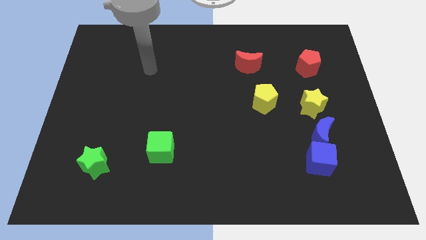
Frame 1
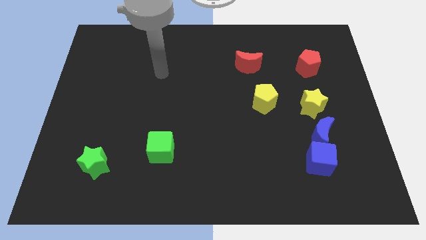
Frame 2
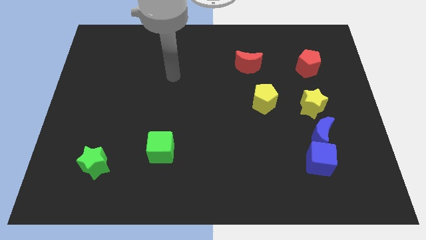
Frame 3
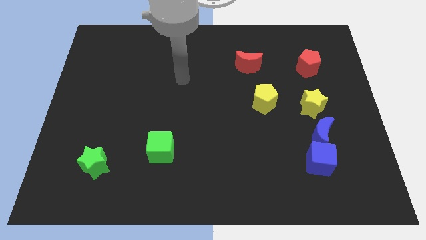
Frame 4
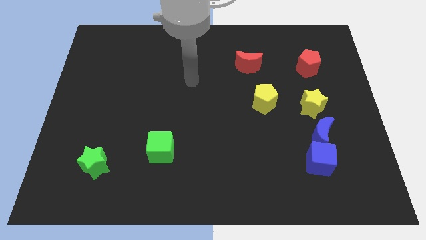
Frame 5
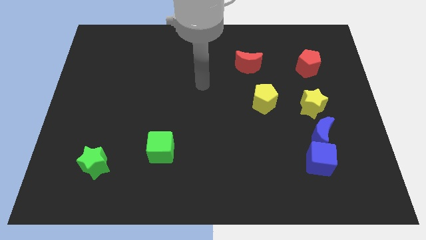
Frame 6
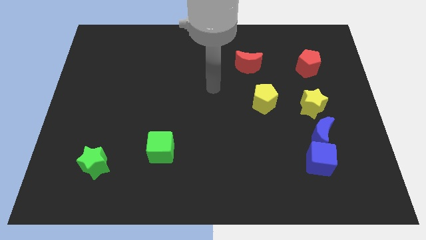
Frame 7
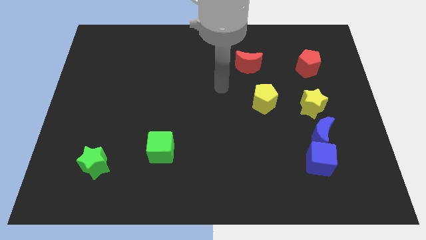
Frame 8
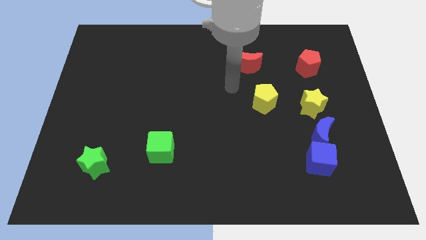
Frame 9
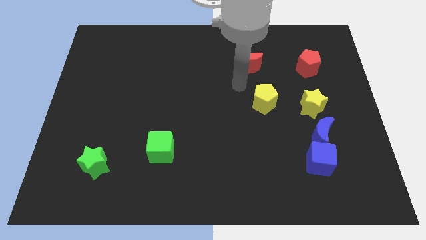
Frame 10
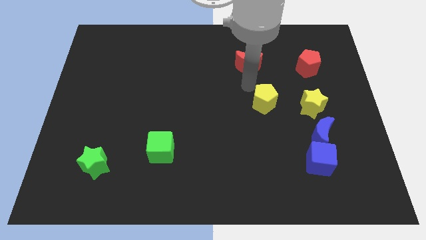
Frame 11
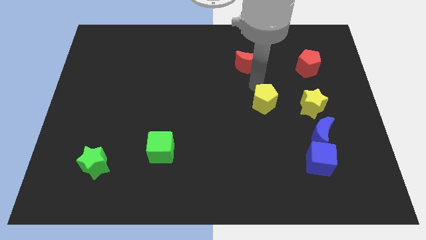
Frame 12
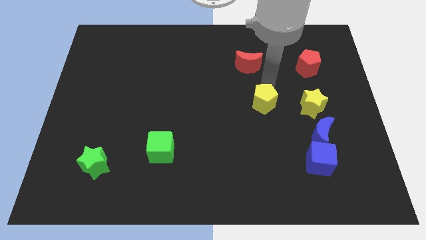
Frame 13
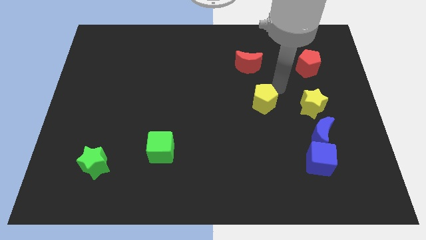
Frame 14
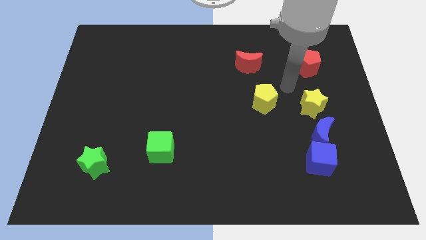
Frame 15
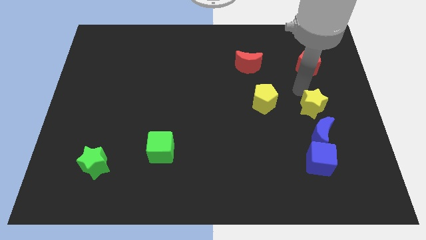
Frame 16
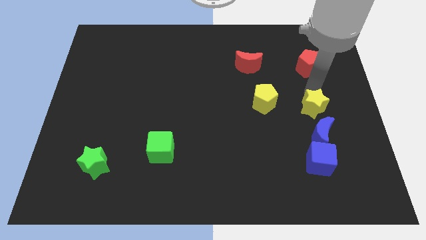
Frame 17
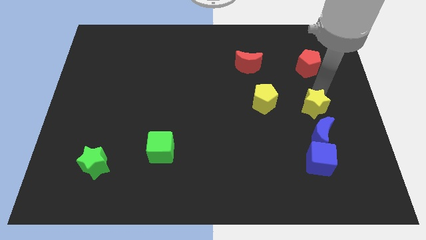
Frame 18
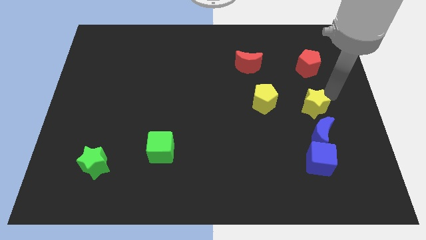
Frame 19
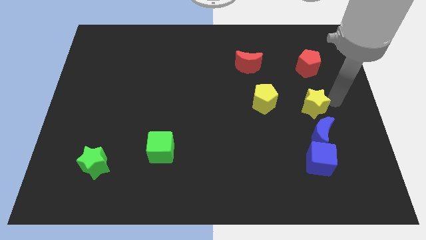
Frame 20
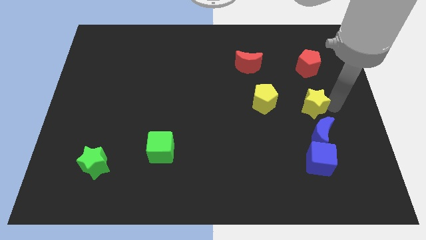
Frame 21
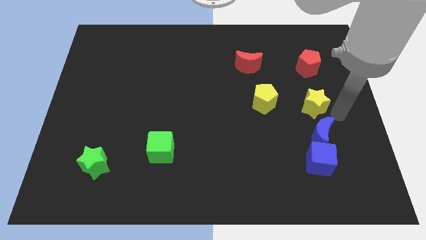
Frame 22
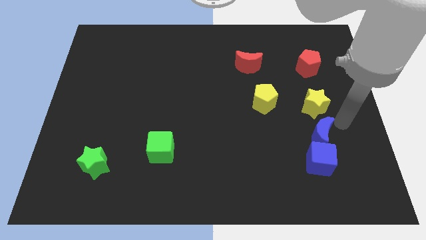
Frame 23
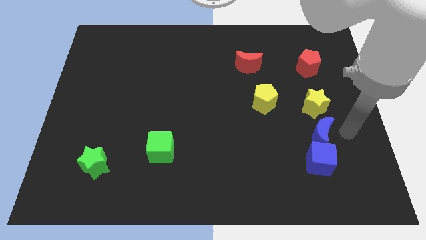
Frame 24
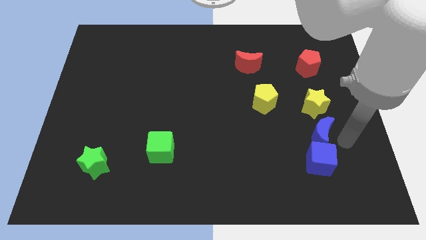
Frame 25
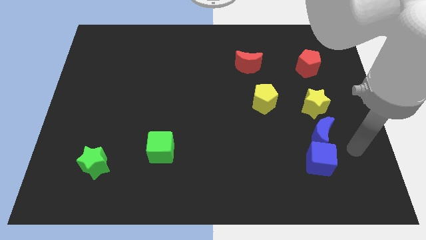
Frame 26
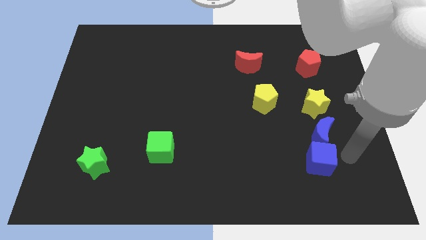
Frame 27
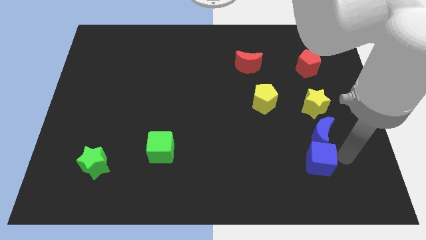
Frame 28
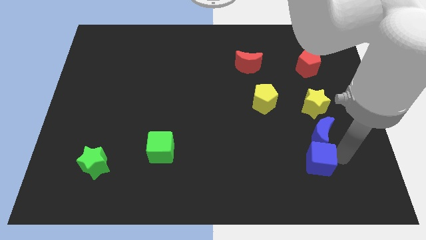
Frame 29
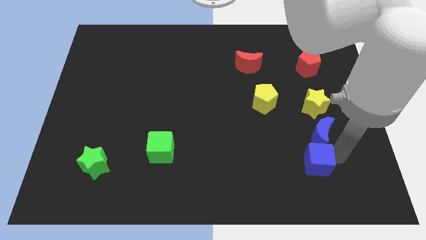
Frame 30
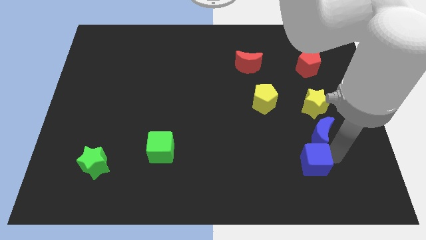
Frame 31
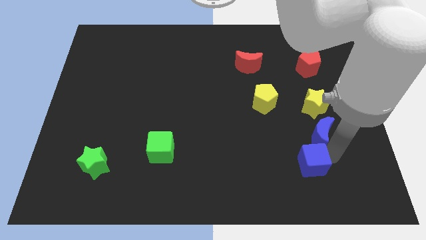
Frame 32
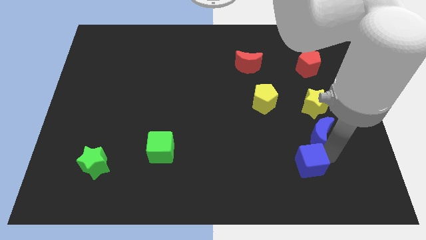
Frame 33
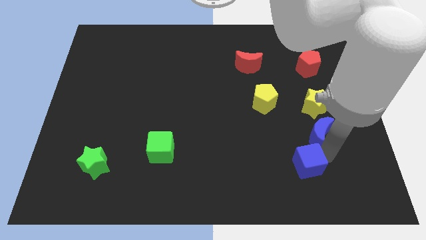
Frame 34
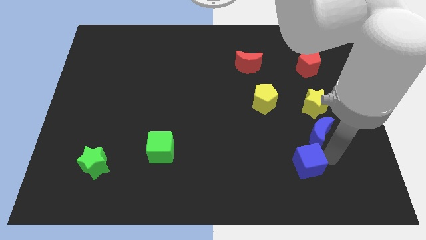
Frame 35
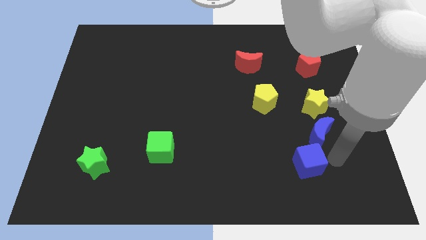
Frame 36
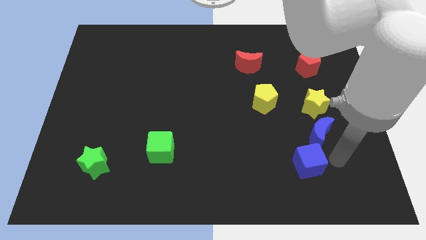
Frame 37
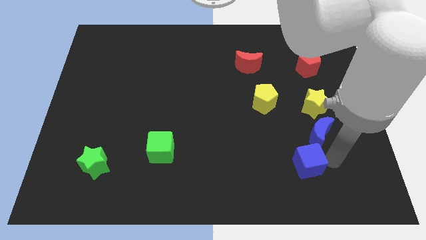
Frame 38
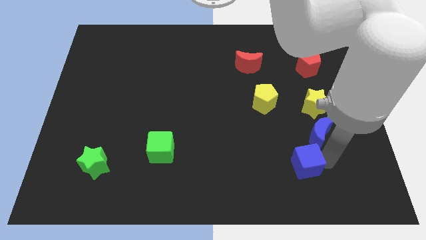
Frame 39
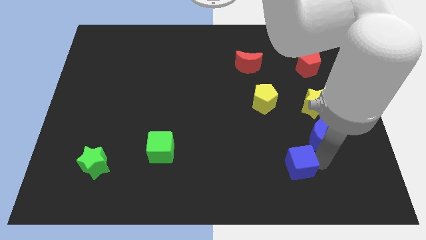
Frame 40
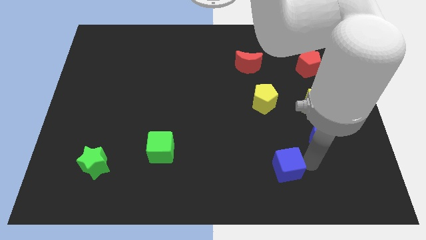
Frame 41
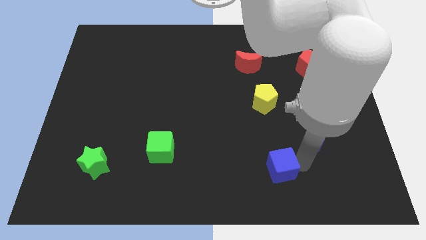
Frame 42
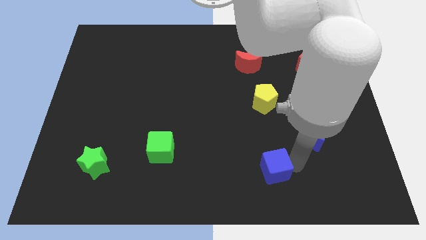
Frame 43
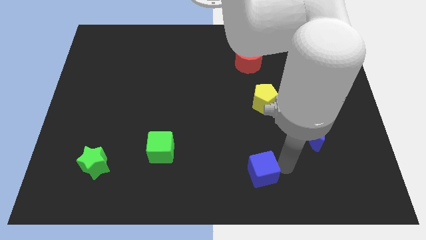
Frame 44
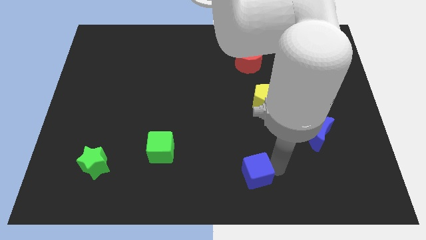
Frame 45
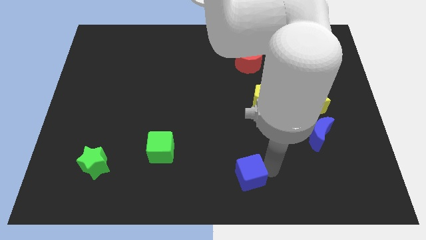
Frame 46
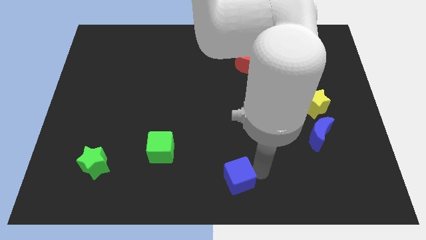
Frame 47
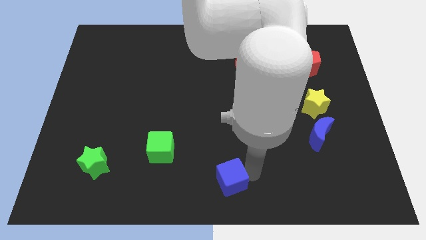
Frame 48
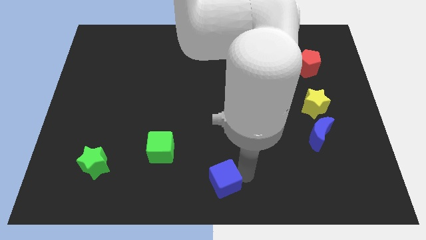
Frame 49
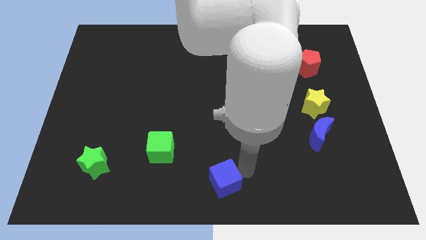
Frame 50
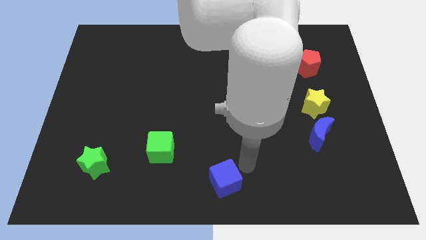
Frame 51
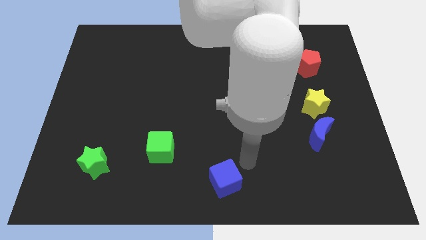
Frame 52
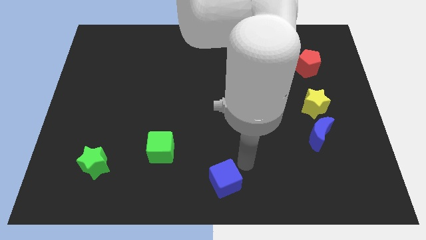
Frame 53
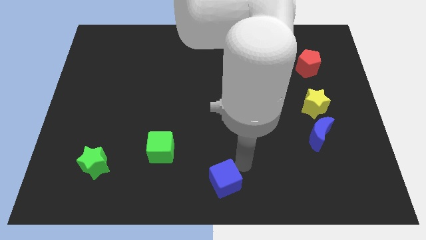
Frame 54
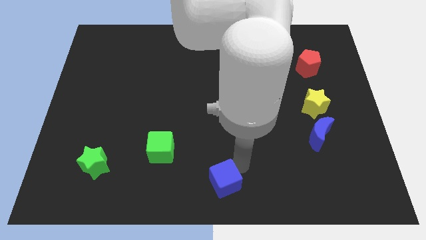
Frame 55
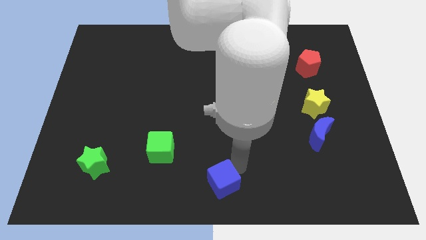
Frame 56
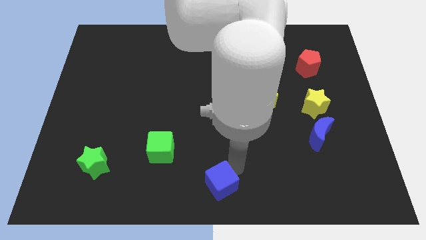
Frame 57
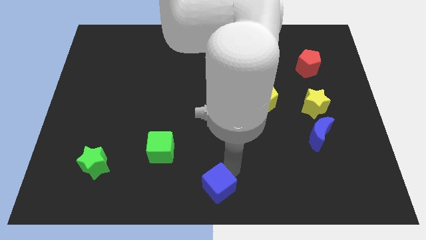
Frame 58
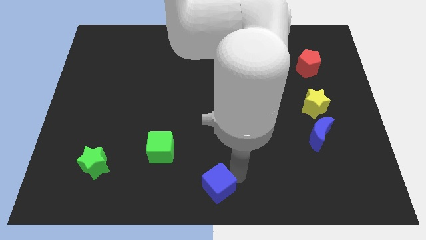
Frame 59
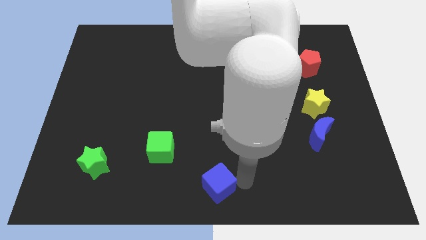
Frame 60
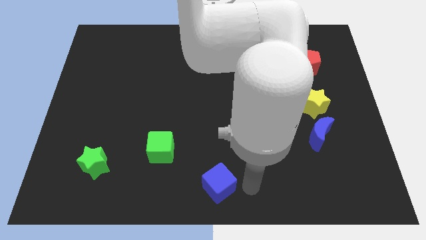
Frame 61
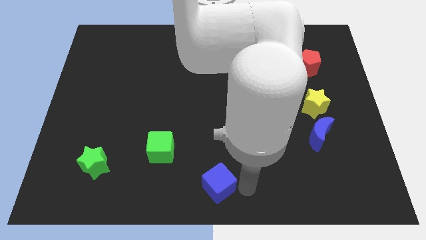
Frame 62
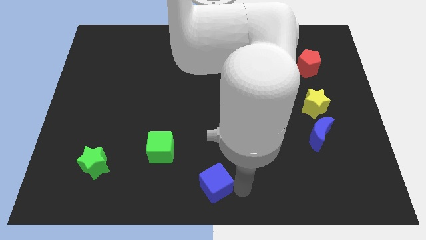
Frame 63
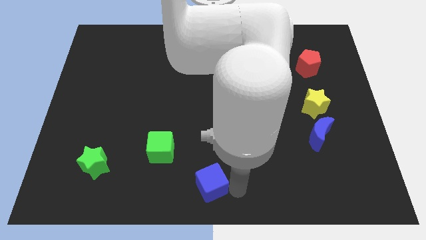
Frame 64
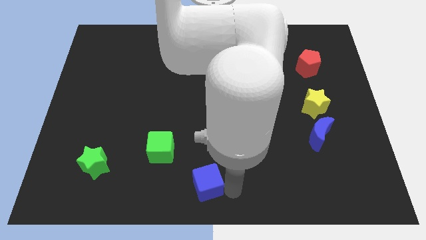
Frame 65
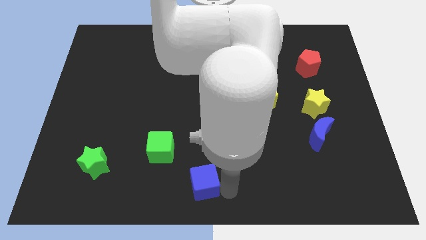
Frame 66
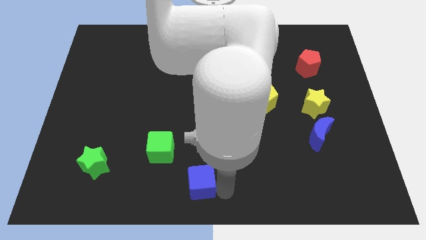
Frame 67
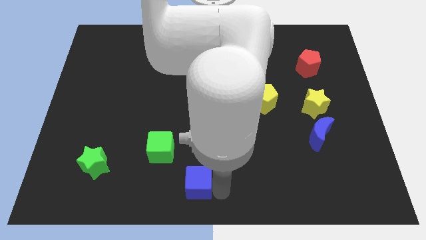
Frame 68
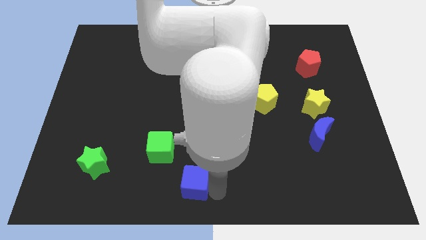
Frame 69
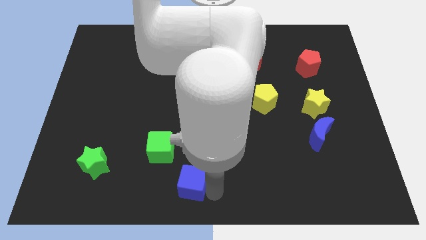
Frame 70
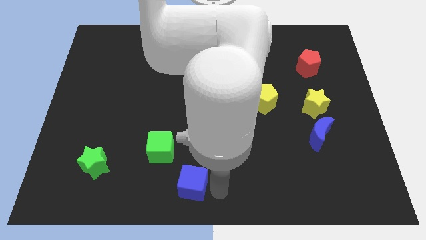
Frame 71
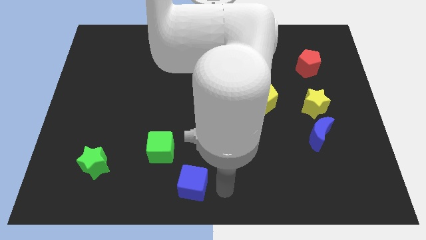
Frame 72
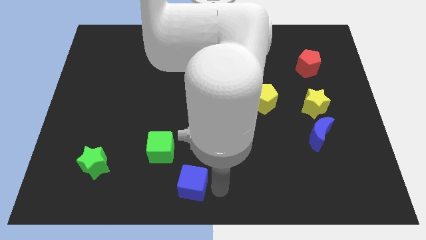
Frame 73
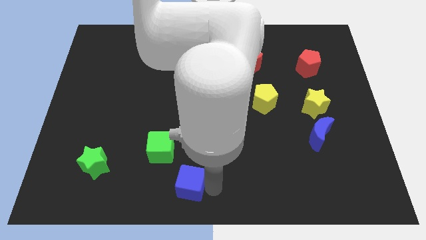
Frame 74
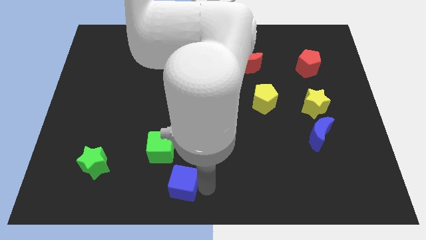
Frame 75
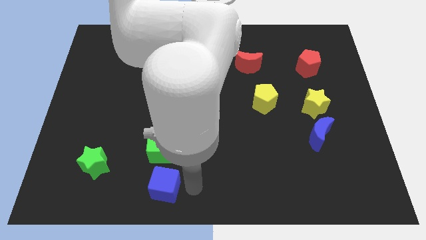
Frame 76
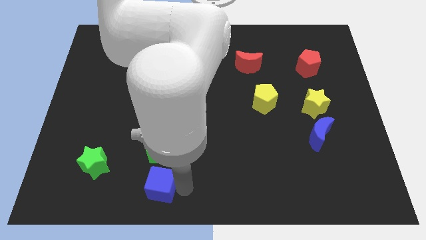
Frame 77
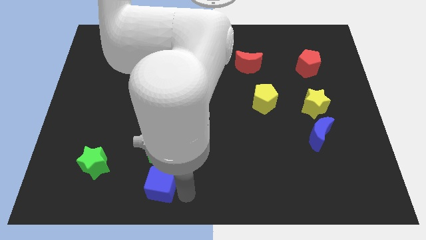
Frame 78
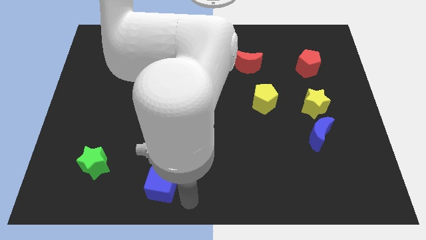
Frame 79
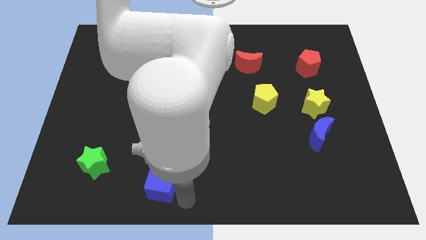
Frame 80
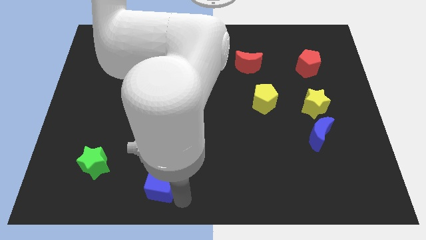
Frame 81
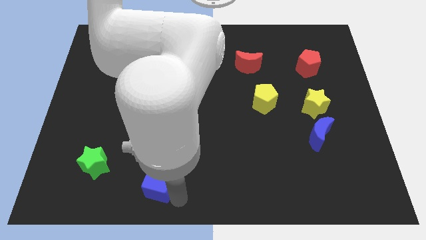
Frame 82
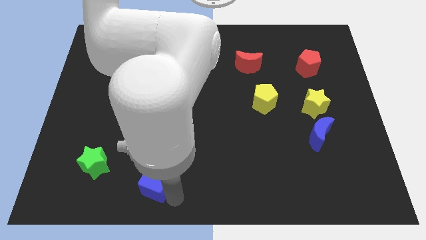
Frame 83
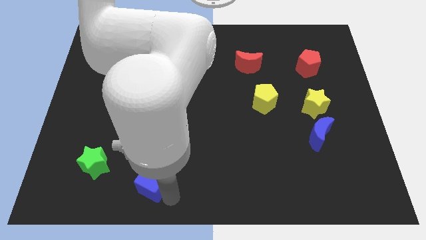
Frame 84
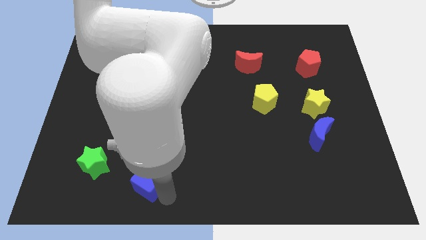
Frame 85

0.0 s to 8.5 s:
push the blue cube to the bottom left of the green cube
